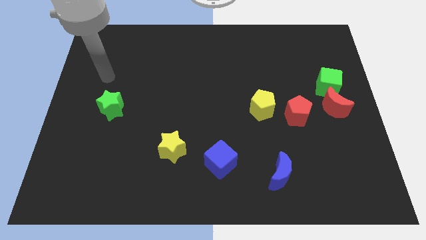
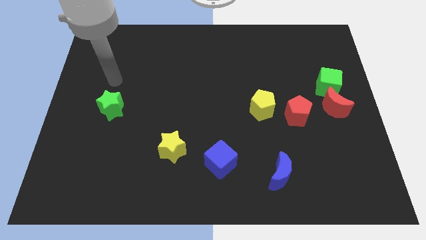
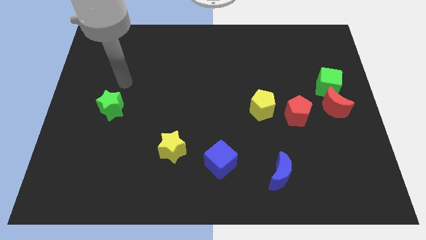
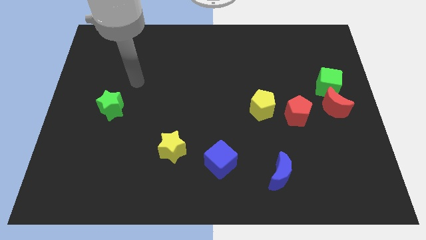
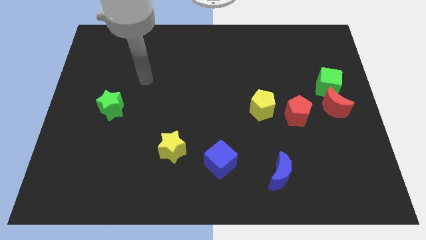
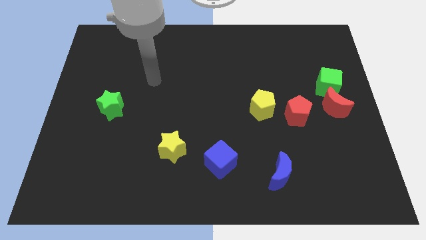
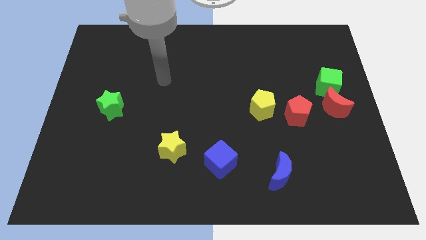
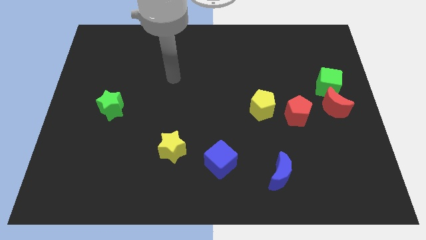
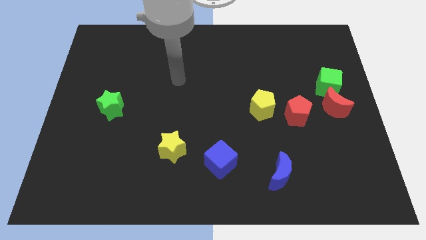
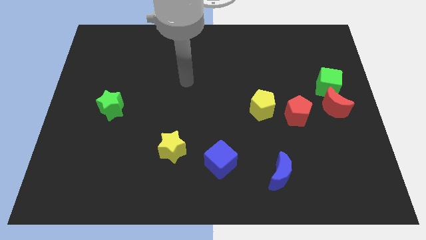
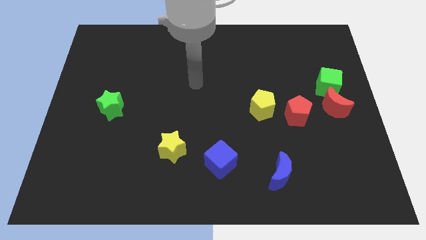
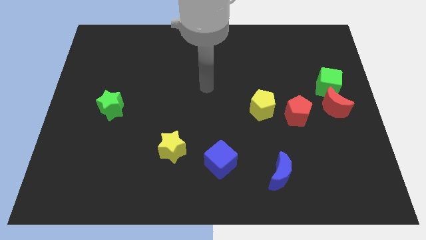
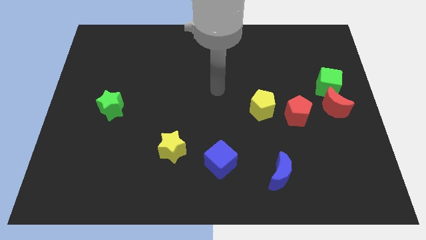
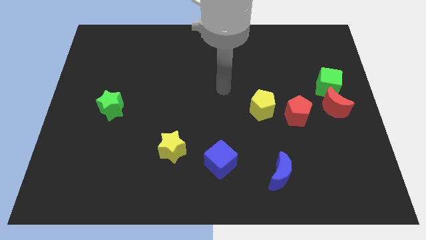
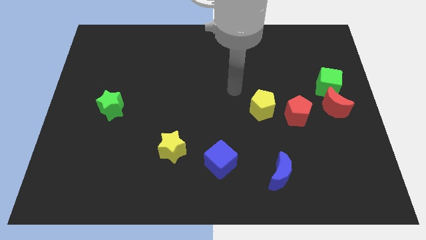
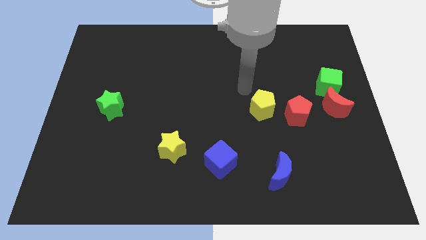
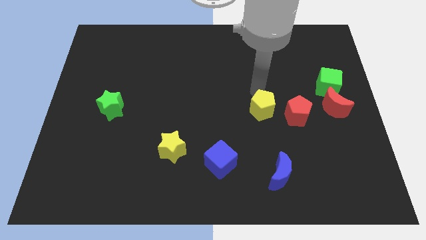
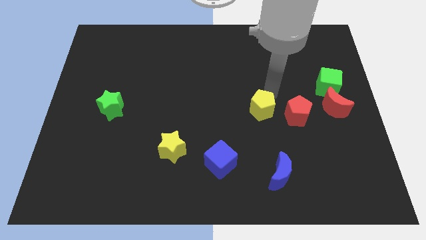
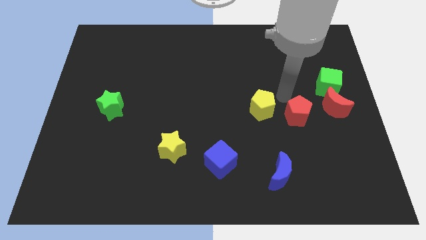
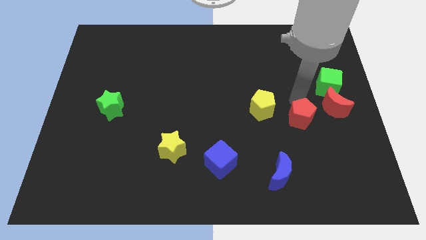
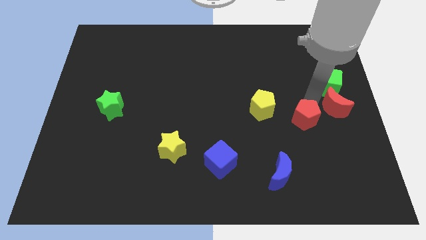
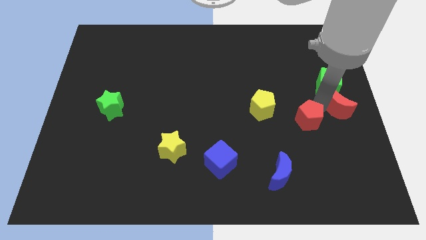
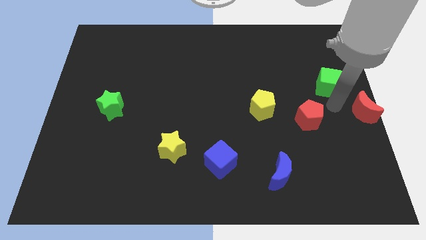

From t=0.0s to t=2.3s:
pull the green cube apart from the red moon

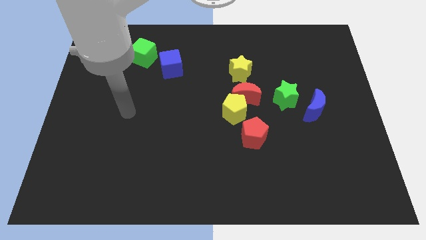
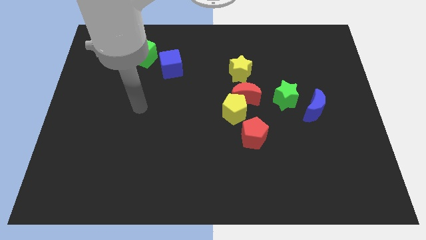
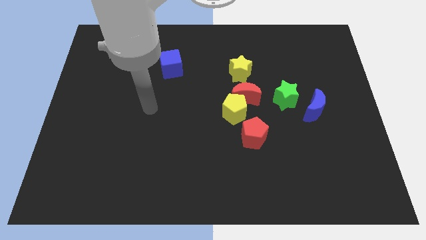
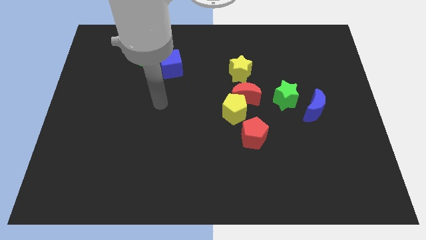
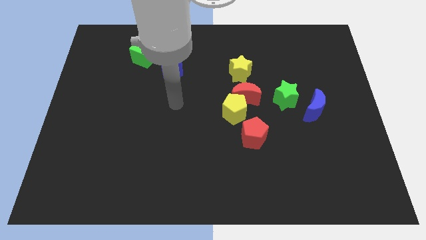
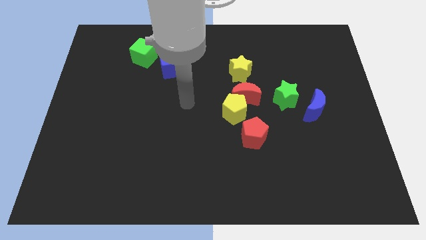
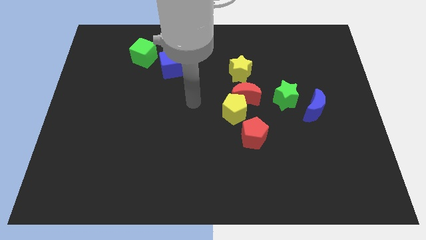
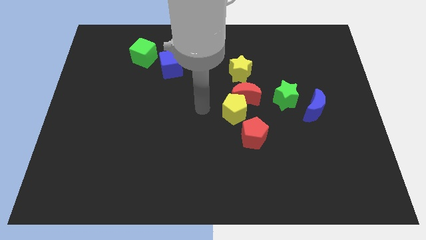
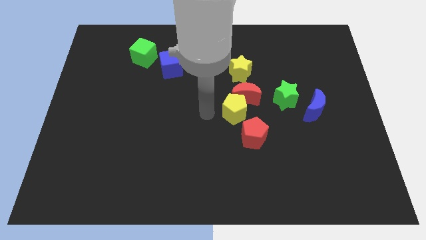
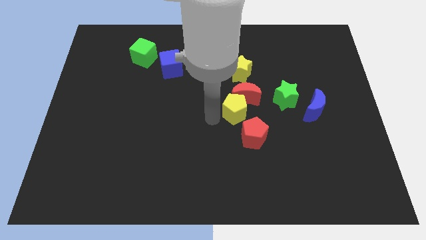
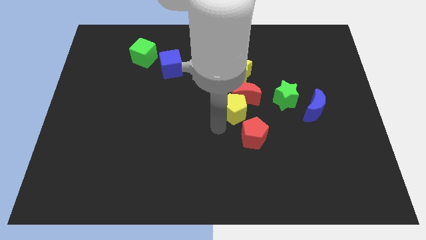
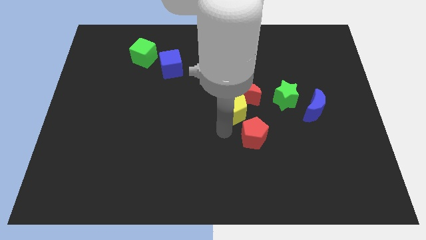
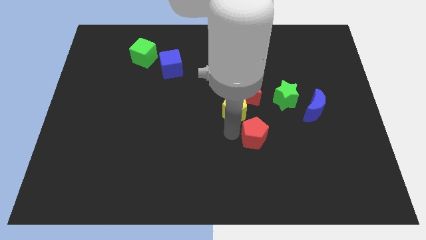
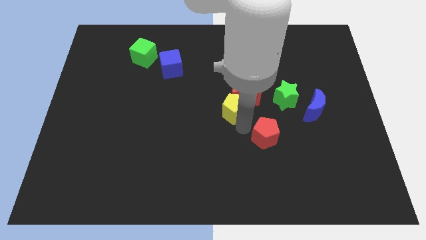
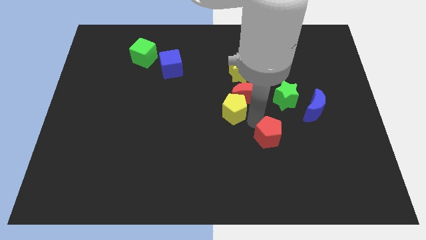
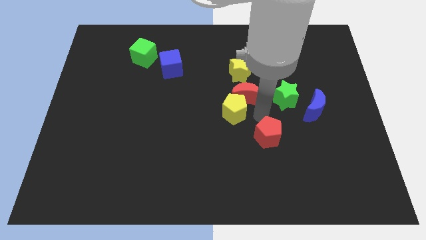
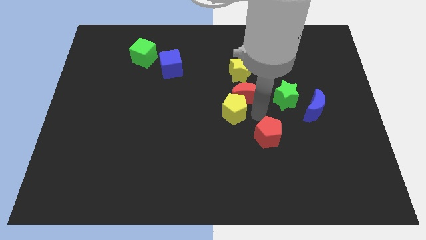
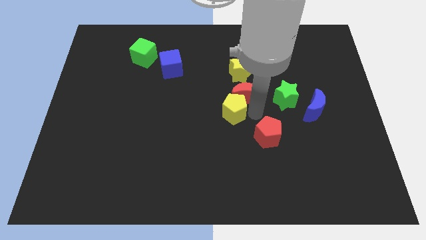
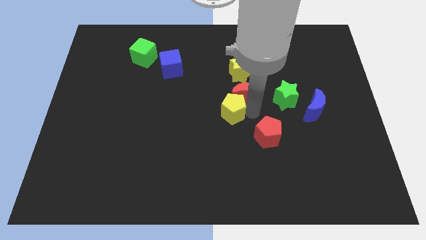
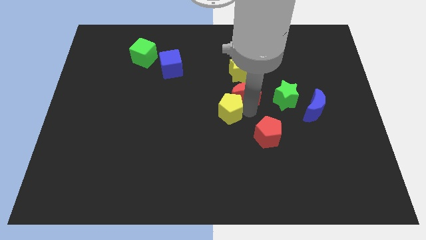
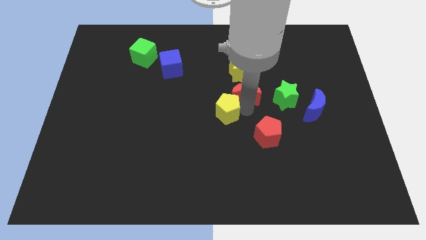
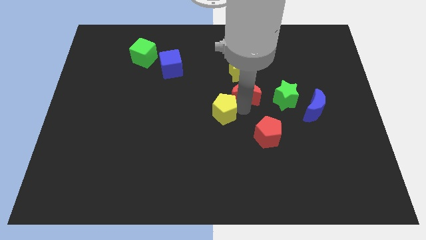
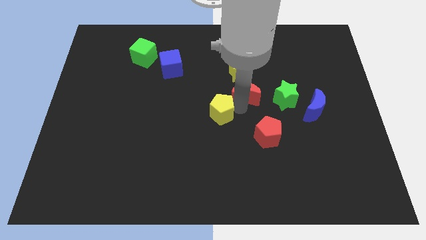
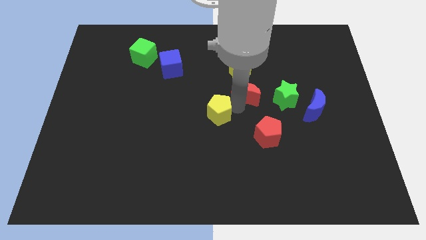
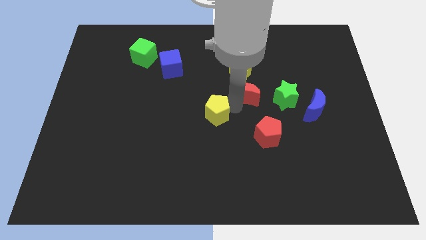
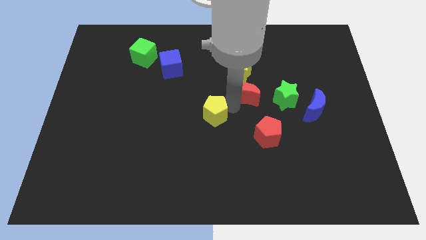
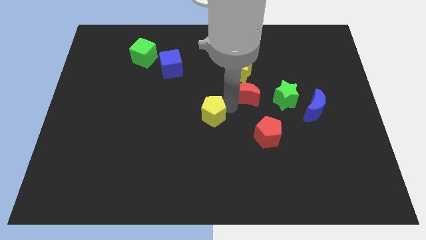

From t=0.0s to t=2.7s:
pull the yellow pentagon apart from the red moon and red pentagon

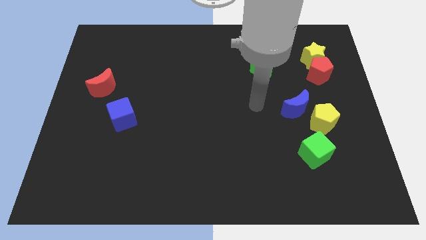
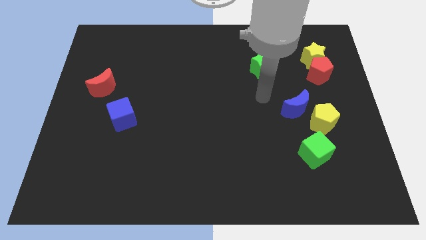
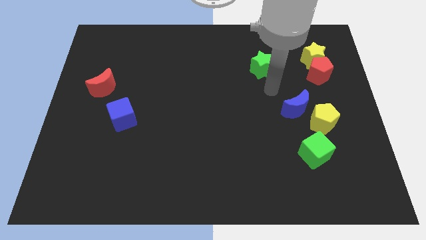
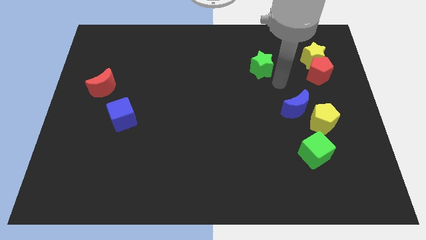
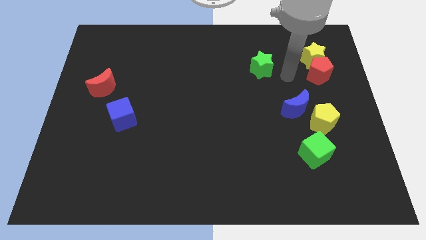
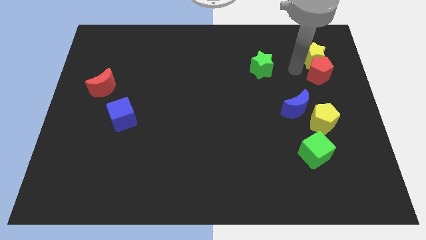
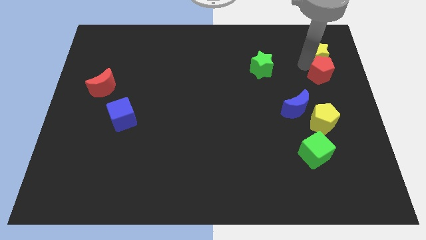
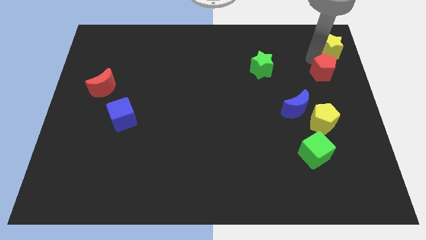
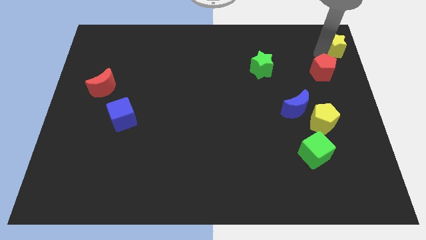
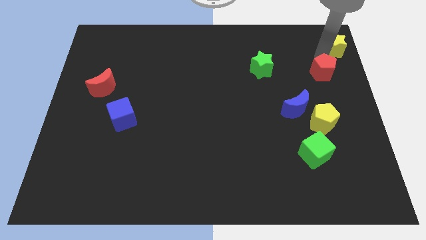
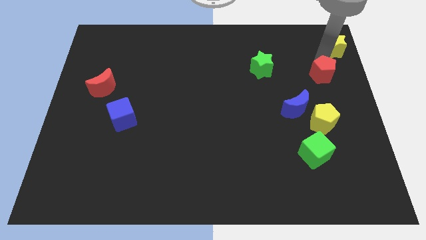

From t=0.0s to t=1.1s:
move the red pentagon away from the yellow star

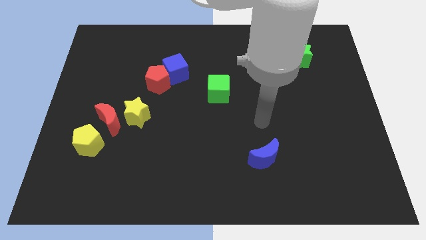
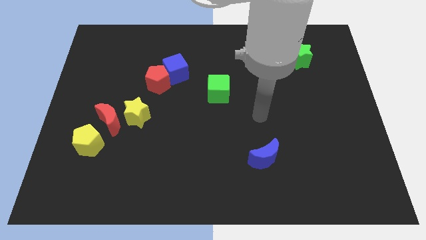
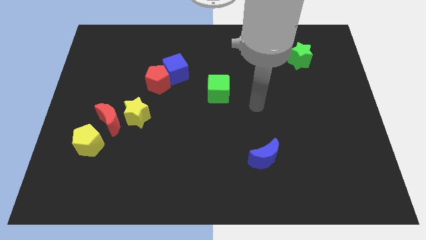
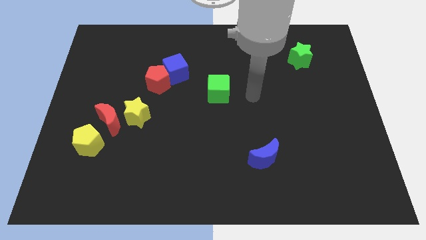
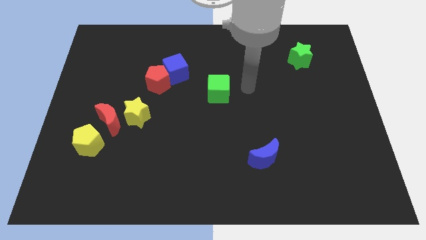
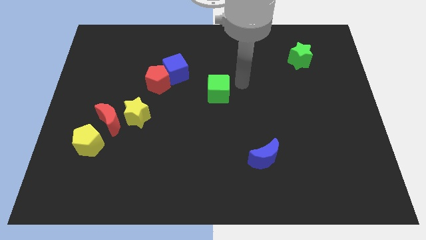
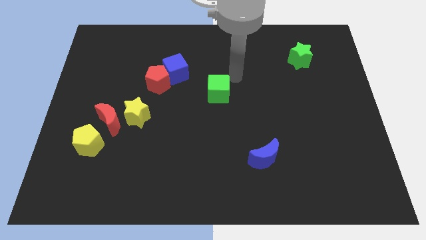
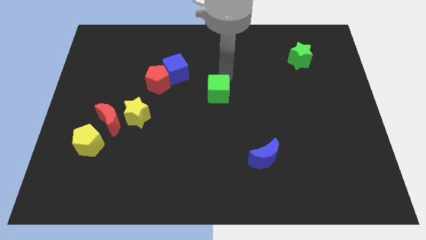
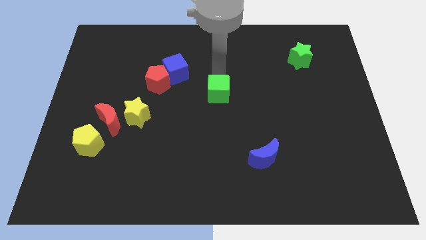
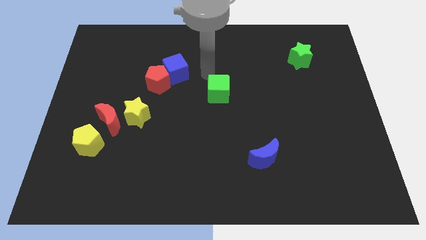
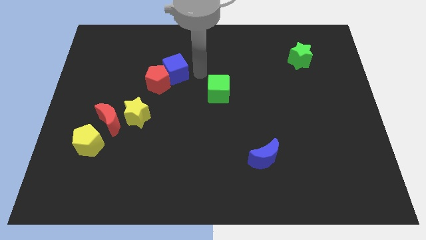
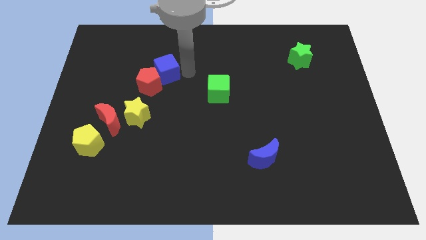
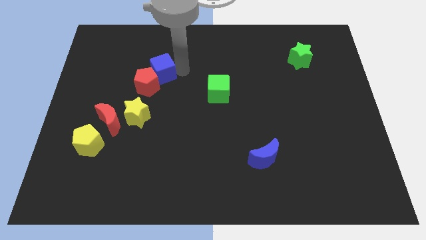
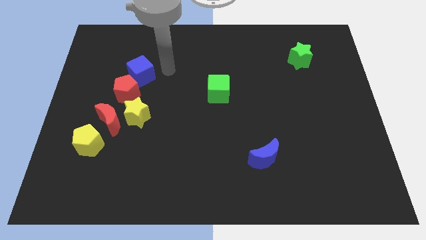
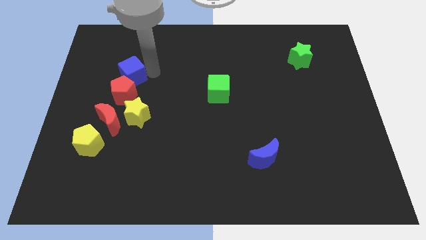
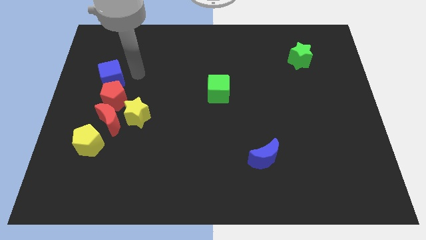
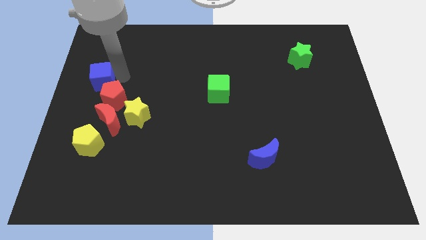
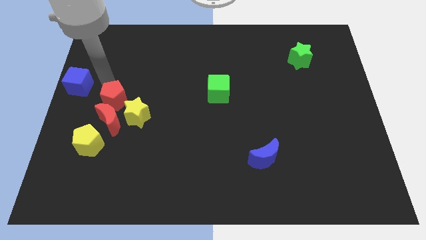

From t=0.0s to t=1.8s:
move the red pentagon away from the blue cube

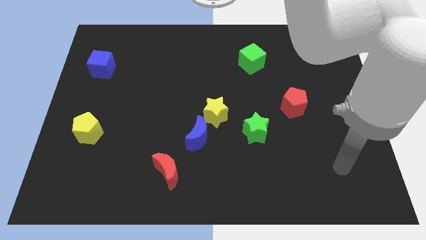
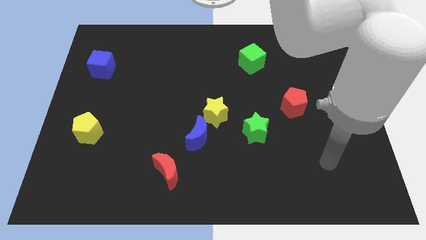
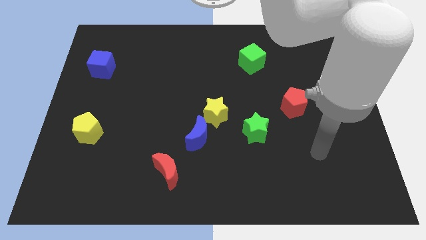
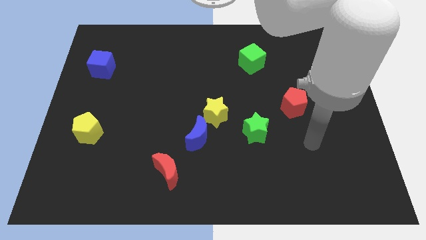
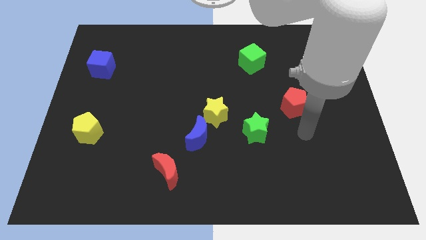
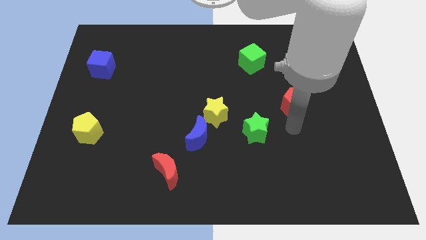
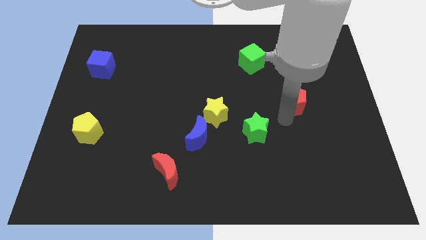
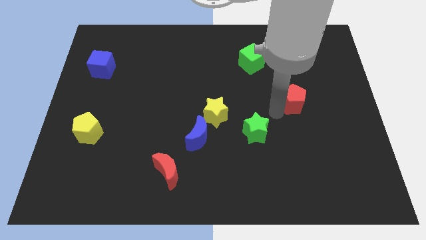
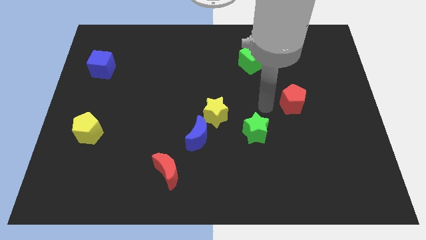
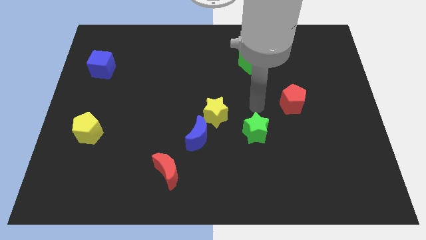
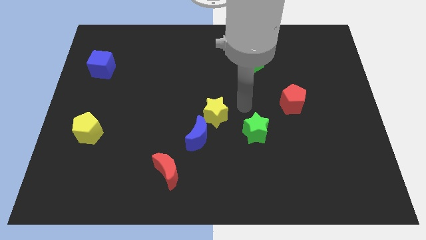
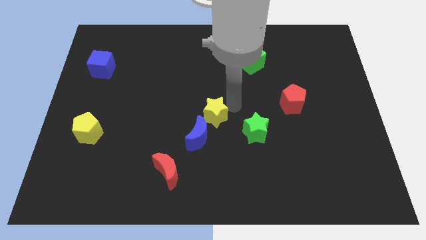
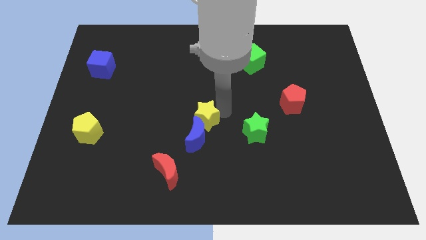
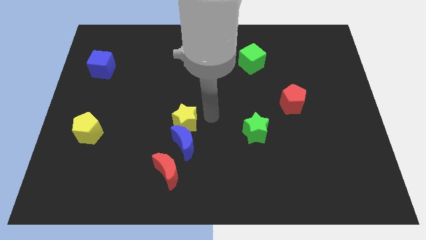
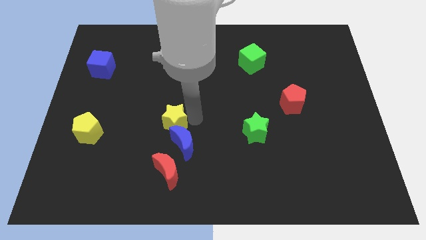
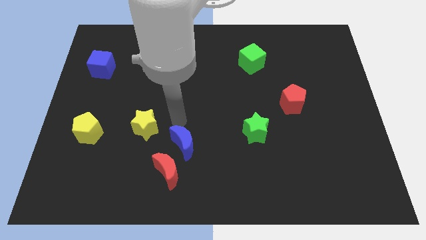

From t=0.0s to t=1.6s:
separate the blue moon from the yellow star

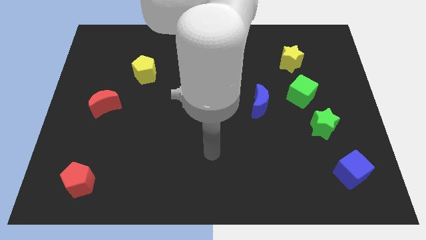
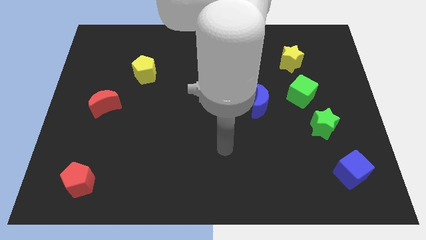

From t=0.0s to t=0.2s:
move the green cube away from the green star
